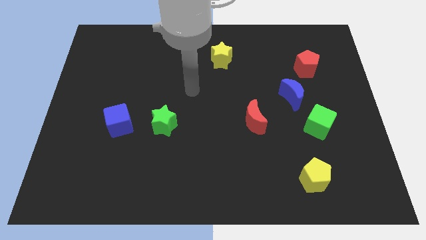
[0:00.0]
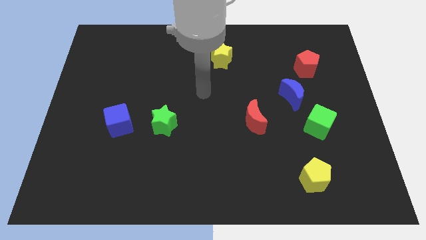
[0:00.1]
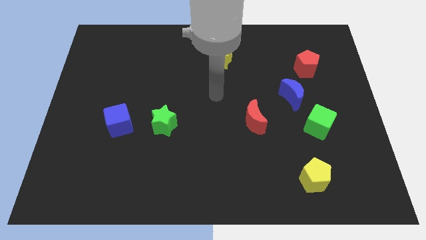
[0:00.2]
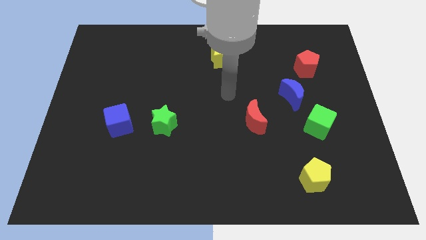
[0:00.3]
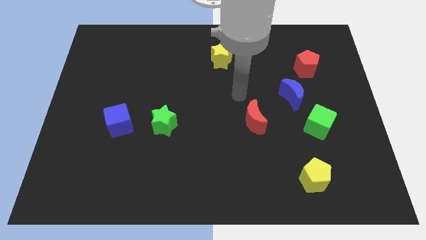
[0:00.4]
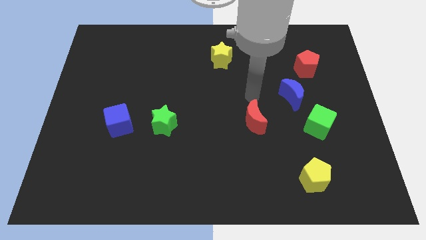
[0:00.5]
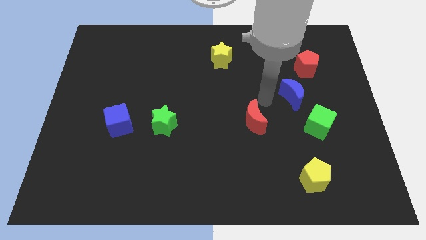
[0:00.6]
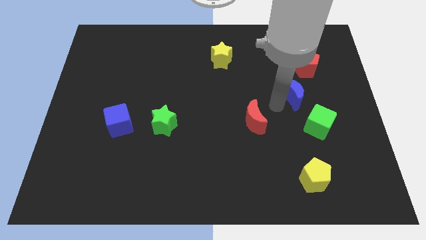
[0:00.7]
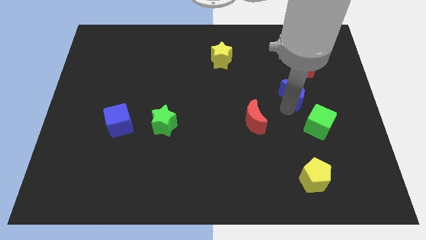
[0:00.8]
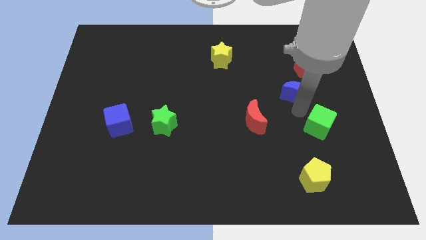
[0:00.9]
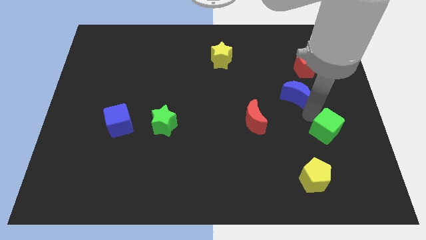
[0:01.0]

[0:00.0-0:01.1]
move the blue moon away from the green cube

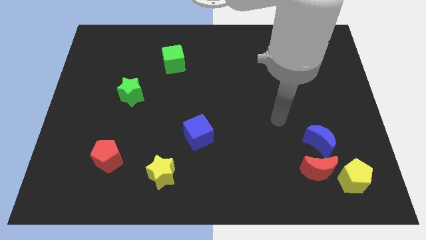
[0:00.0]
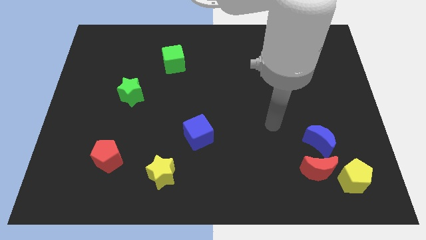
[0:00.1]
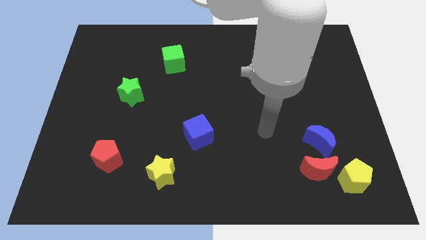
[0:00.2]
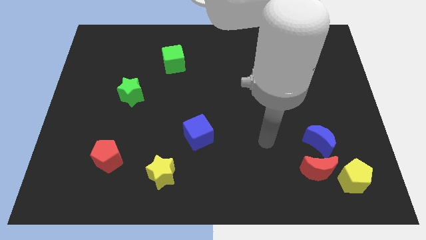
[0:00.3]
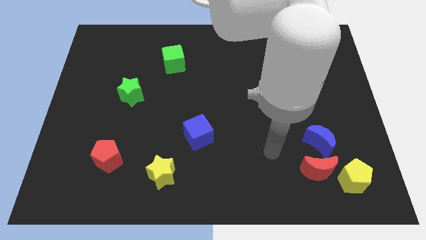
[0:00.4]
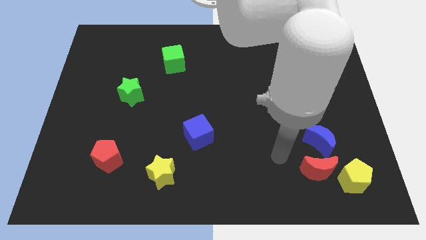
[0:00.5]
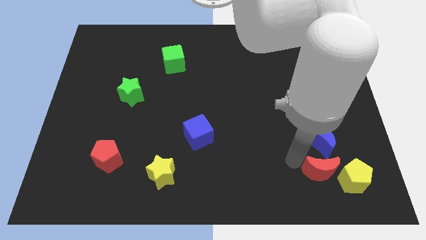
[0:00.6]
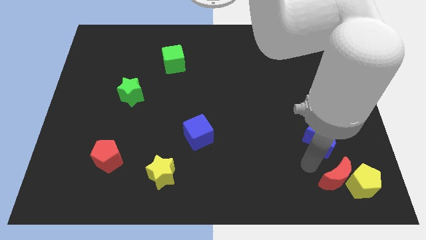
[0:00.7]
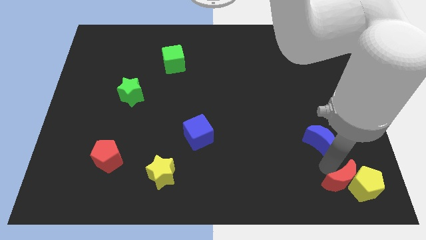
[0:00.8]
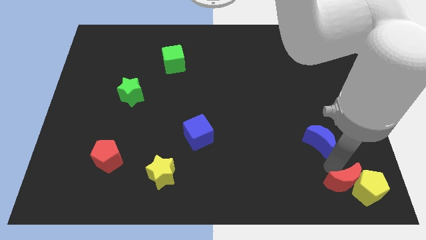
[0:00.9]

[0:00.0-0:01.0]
move the blue moon away from the red moon

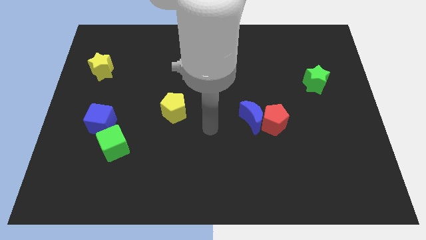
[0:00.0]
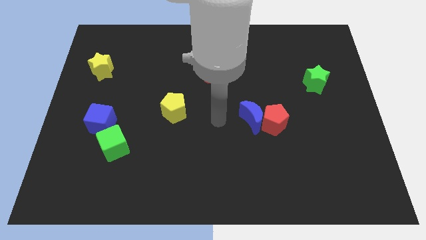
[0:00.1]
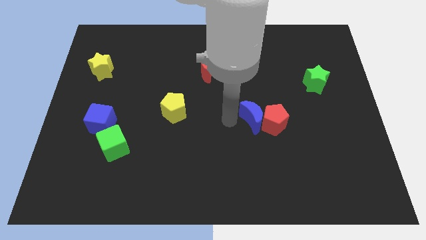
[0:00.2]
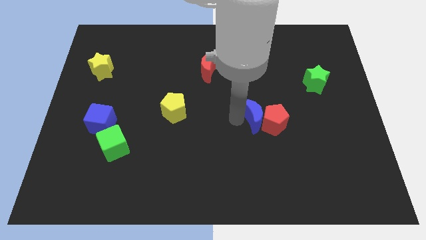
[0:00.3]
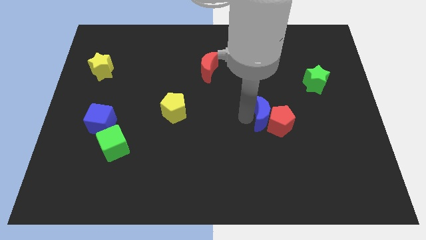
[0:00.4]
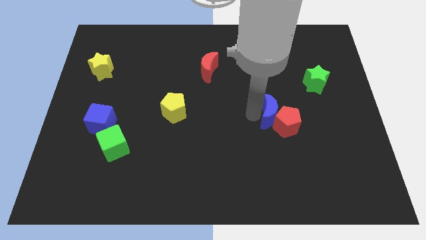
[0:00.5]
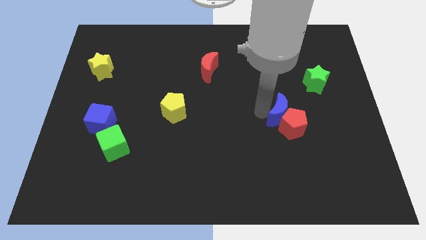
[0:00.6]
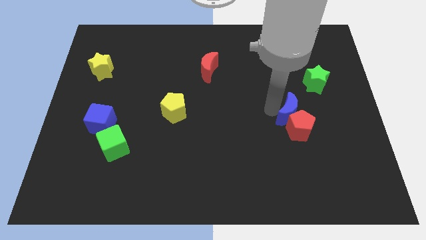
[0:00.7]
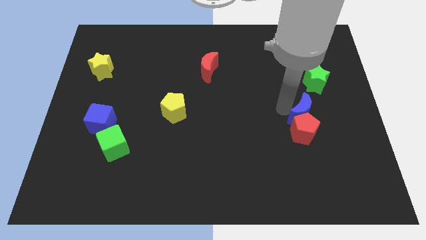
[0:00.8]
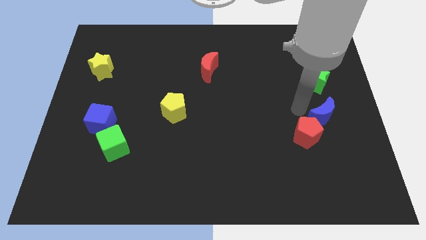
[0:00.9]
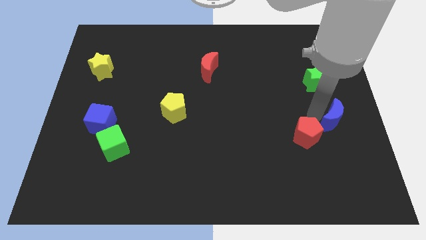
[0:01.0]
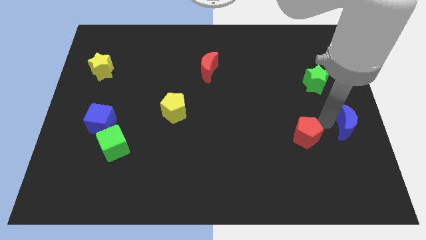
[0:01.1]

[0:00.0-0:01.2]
separate the red pentagon from the blue moon

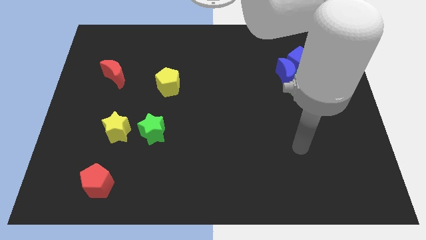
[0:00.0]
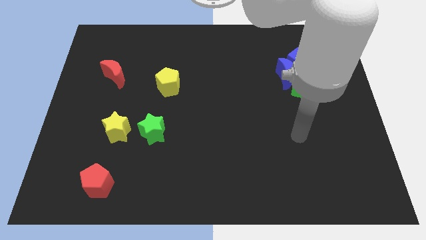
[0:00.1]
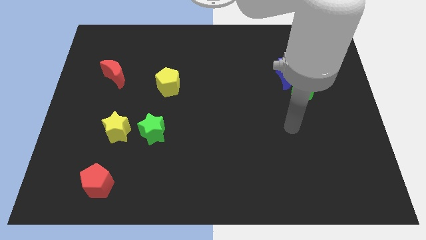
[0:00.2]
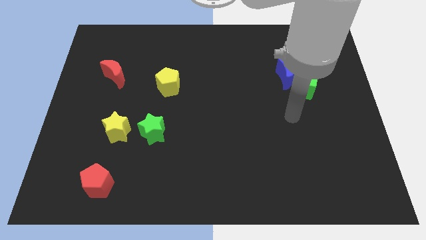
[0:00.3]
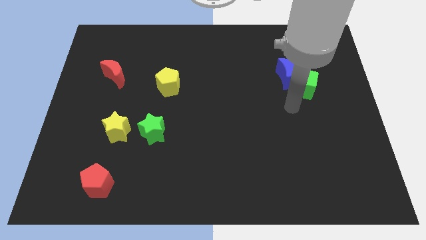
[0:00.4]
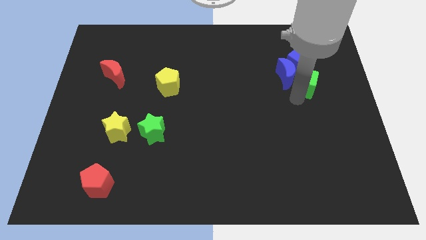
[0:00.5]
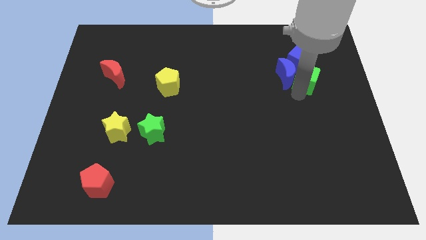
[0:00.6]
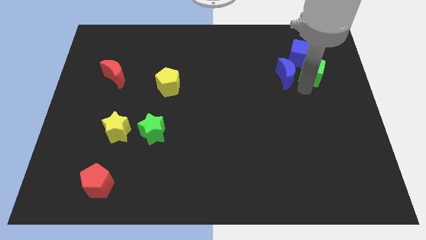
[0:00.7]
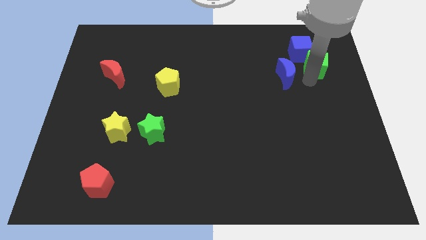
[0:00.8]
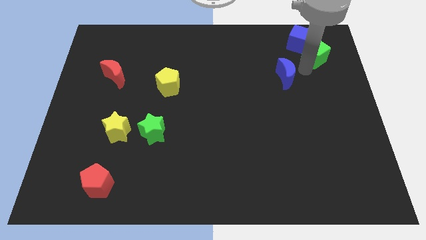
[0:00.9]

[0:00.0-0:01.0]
separate the blue moon from the green cube and blue cube

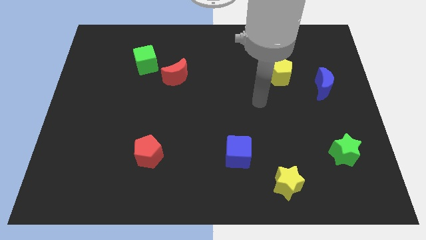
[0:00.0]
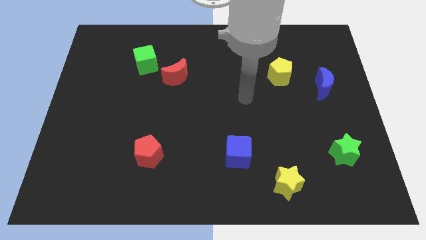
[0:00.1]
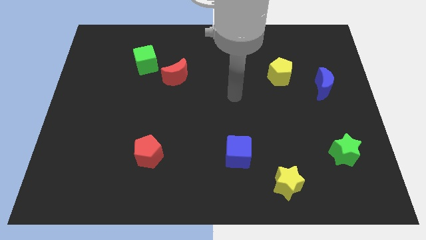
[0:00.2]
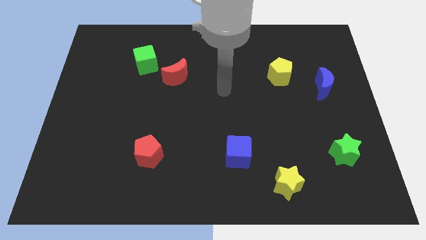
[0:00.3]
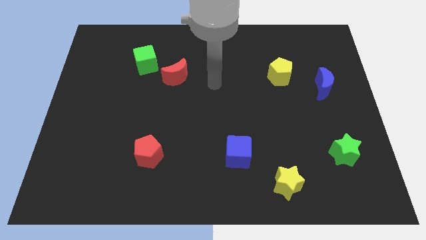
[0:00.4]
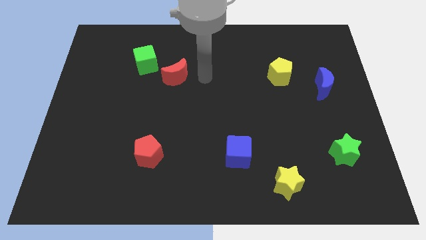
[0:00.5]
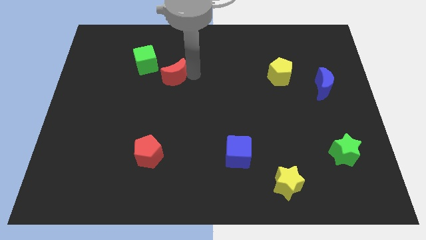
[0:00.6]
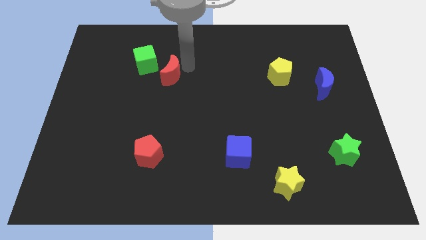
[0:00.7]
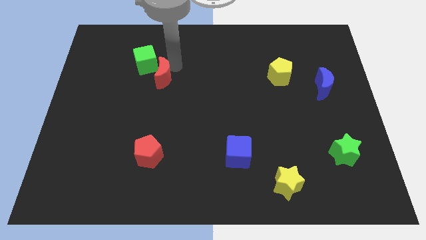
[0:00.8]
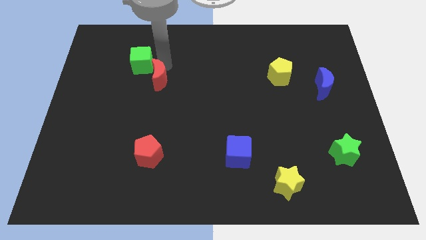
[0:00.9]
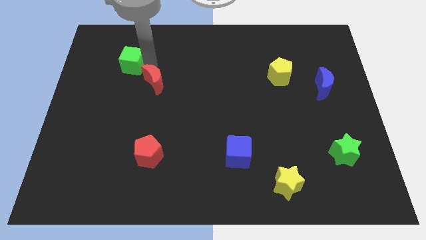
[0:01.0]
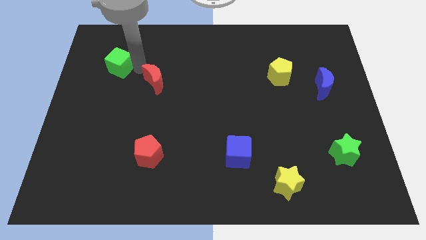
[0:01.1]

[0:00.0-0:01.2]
separate the red moon from the green cube

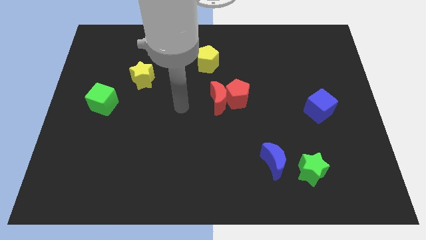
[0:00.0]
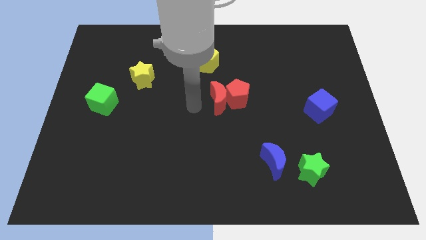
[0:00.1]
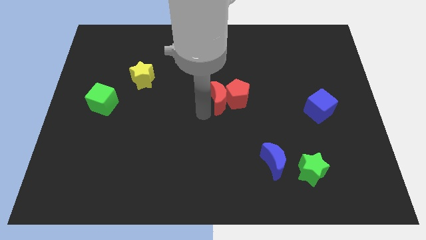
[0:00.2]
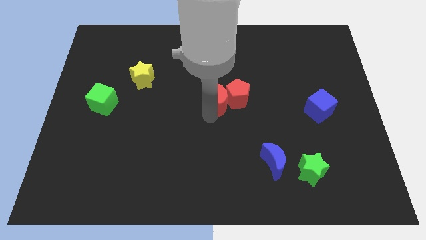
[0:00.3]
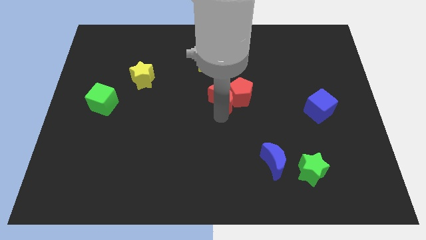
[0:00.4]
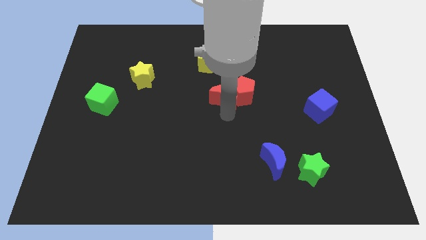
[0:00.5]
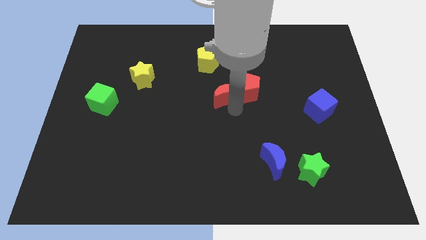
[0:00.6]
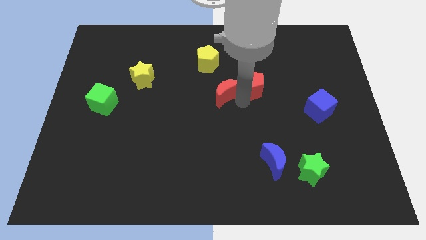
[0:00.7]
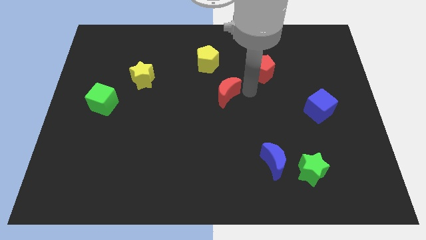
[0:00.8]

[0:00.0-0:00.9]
separate the red moon from the red pentagon

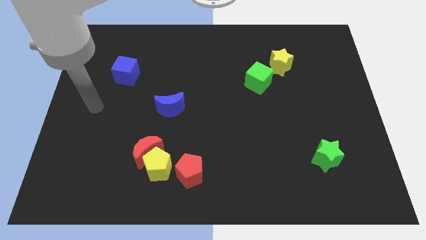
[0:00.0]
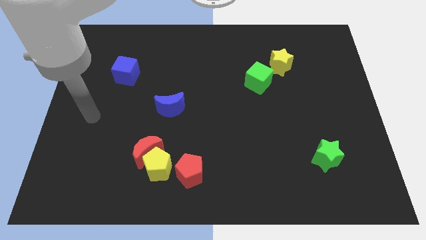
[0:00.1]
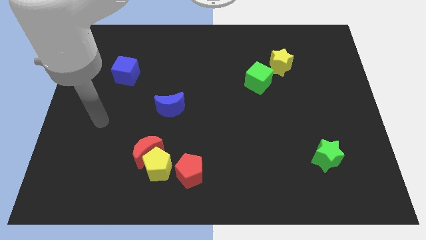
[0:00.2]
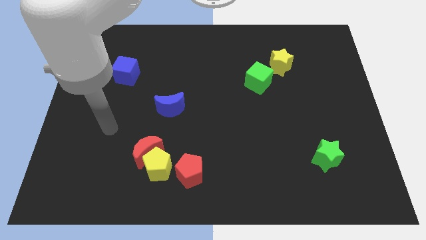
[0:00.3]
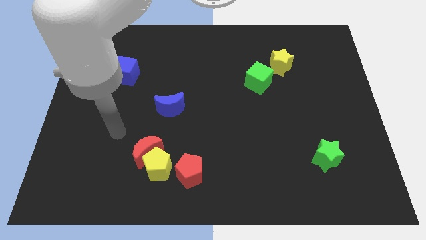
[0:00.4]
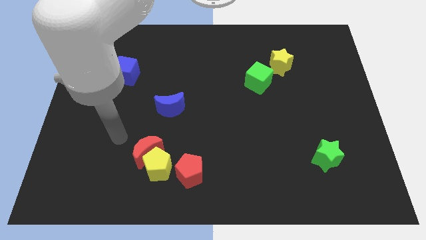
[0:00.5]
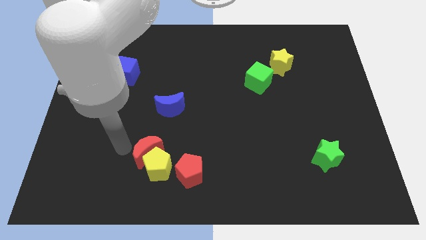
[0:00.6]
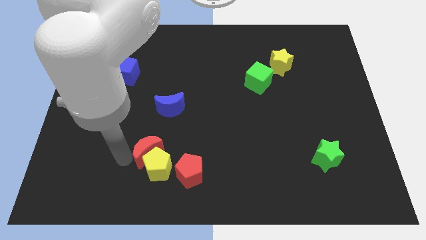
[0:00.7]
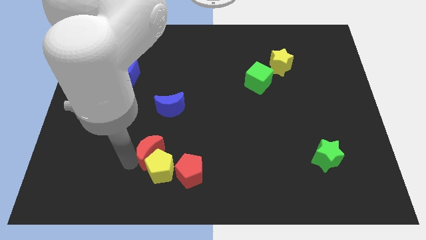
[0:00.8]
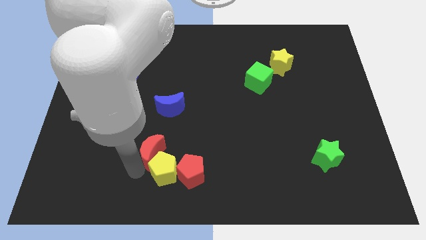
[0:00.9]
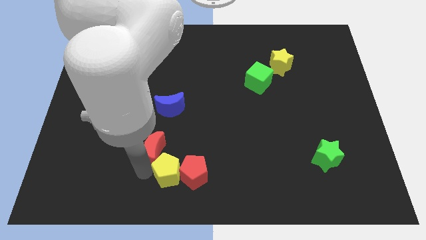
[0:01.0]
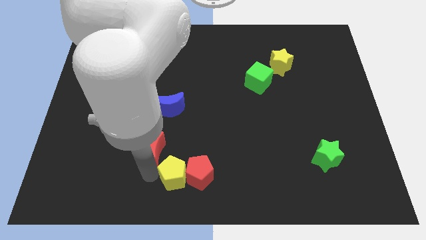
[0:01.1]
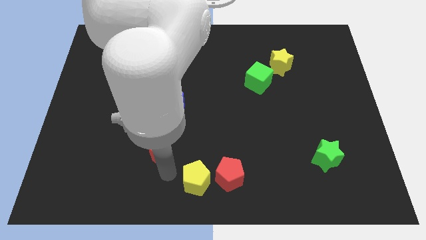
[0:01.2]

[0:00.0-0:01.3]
pull the red moon apart from the yellow pentagon

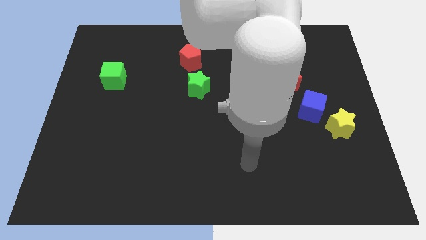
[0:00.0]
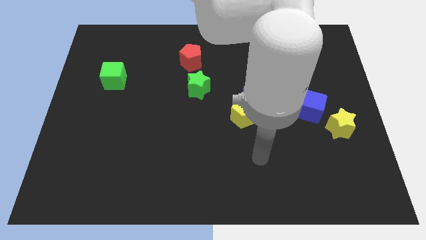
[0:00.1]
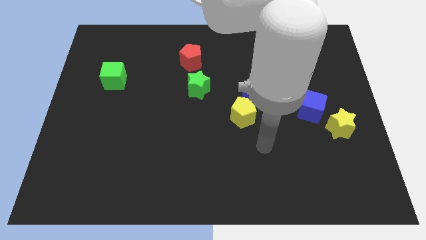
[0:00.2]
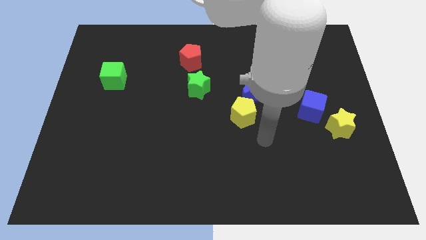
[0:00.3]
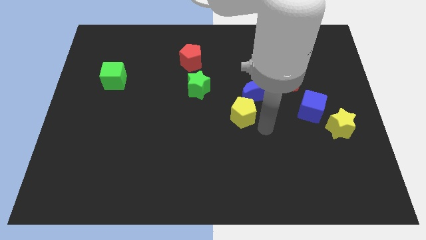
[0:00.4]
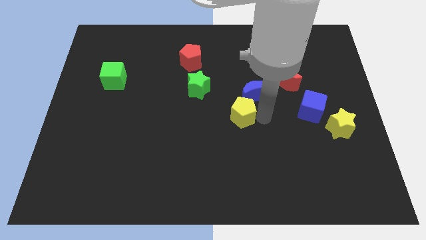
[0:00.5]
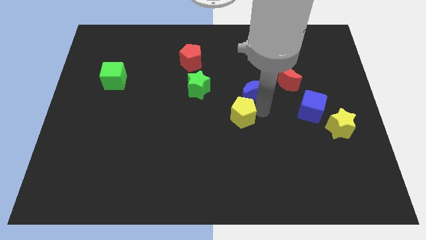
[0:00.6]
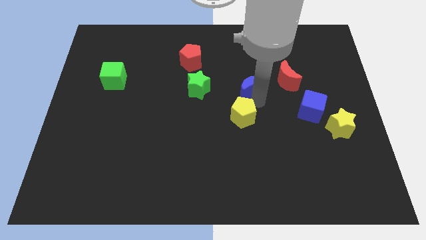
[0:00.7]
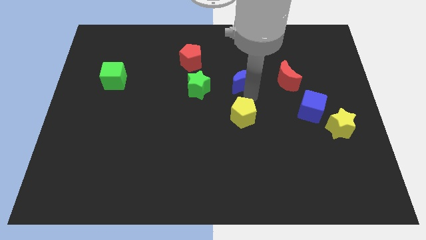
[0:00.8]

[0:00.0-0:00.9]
separate the yellow pentagon from the blue moon

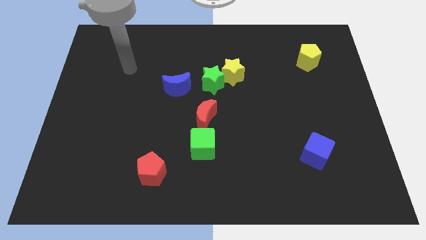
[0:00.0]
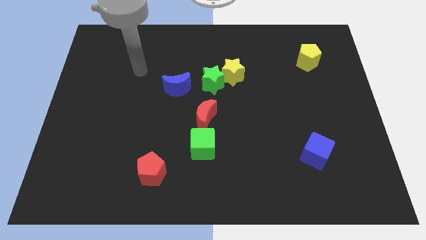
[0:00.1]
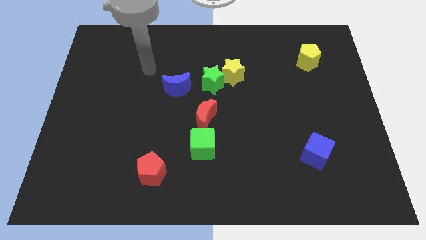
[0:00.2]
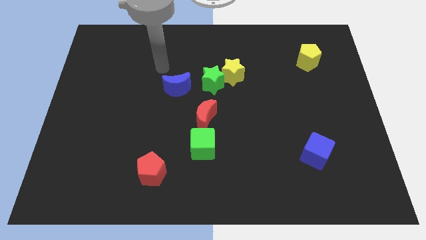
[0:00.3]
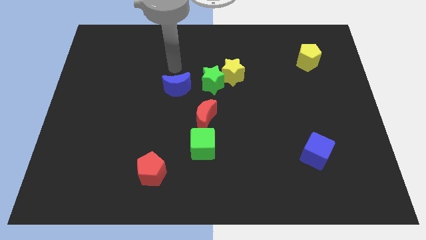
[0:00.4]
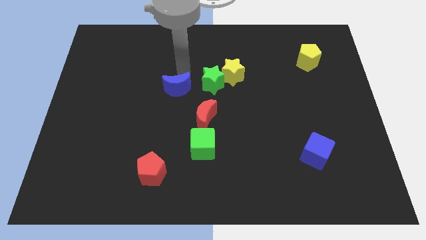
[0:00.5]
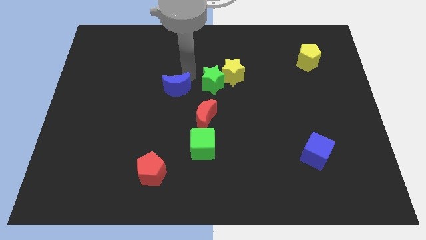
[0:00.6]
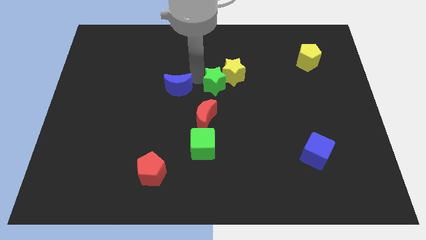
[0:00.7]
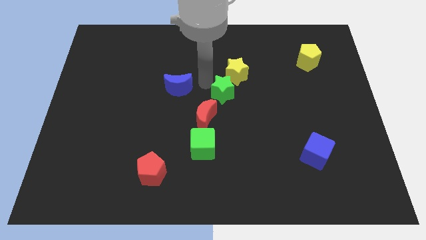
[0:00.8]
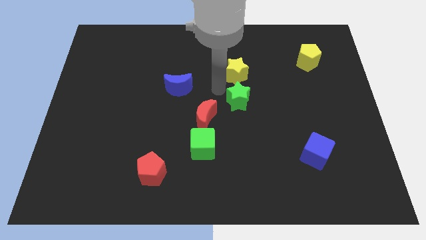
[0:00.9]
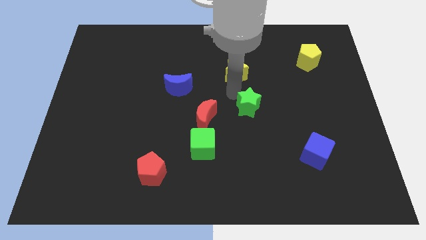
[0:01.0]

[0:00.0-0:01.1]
move the yellow star away from the green star
